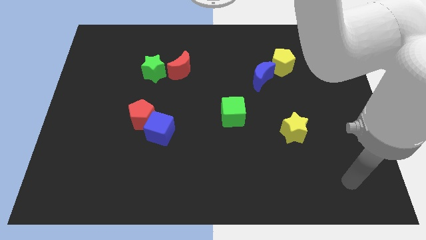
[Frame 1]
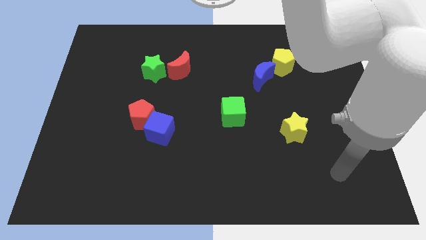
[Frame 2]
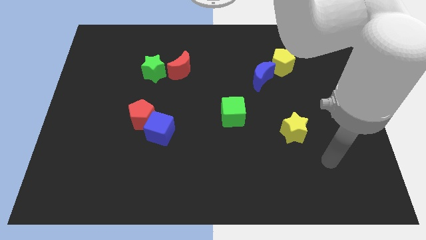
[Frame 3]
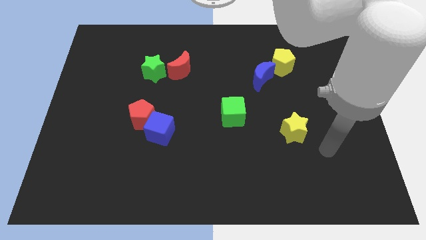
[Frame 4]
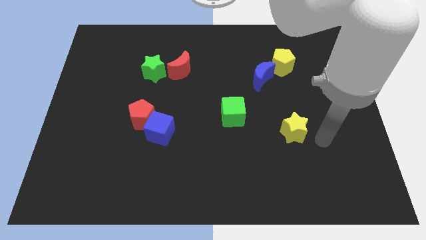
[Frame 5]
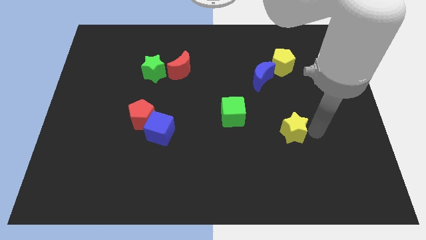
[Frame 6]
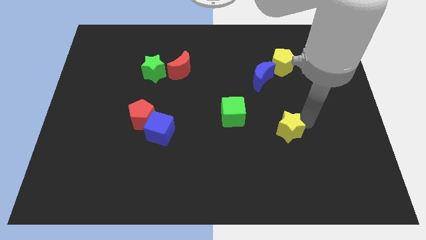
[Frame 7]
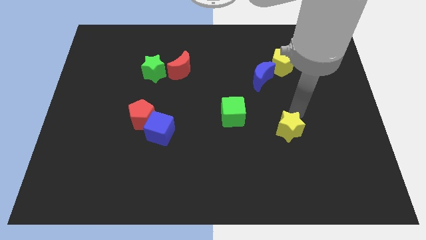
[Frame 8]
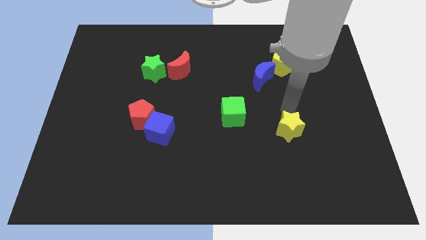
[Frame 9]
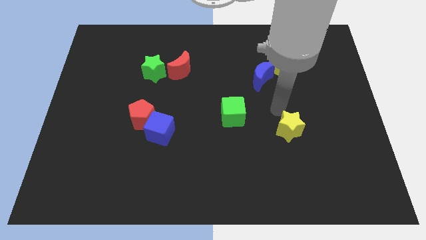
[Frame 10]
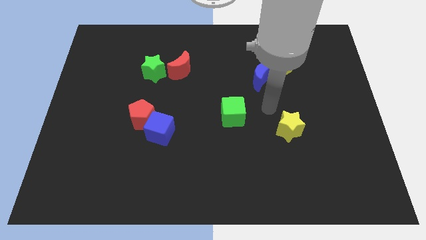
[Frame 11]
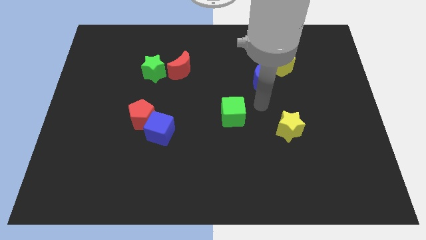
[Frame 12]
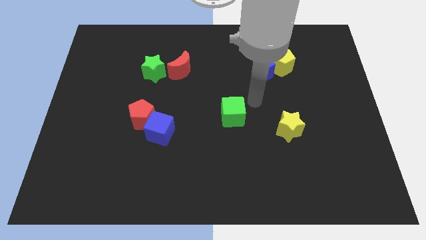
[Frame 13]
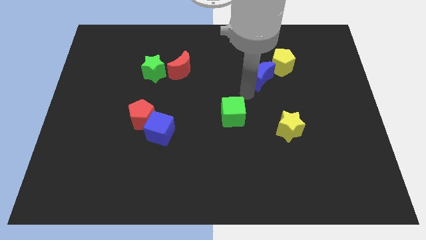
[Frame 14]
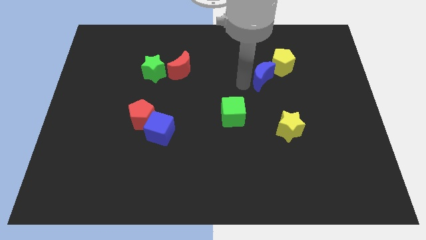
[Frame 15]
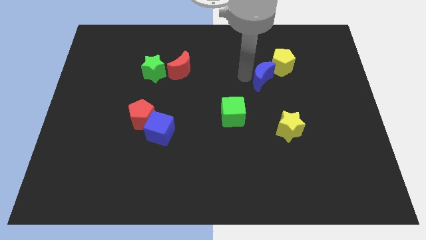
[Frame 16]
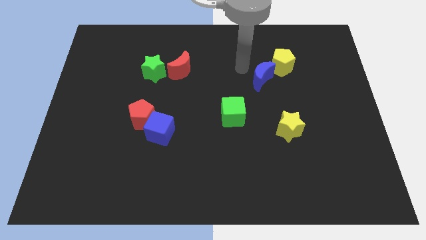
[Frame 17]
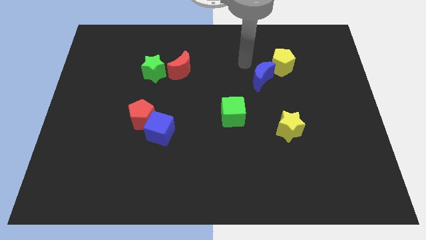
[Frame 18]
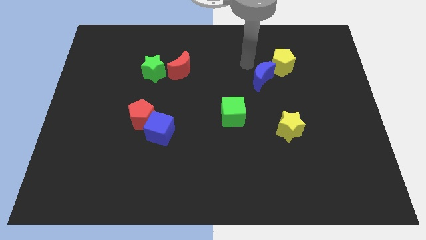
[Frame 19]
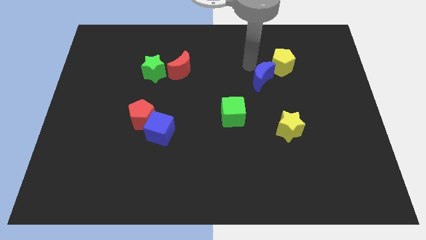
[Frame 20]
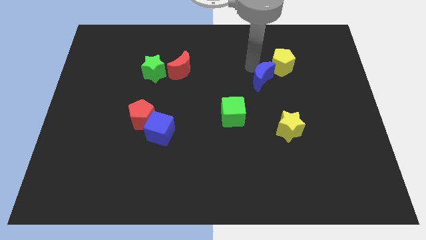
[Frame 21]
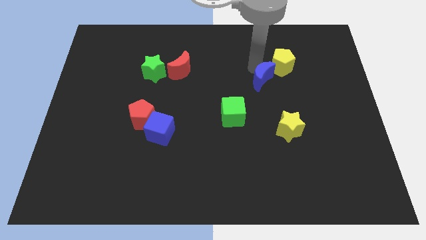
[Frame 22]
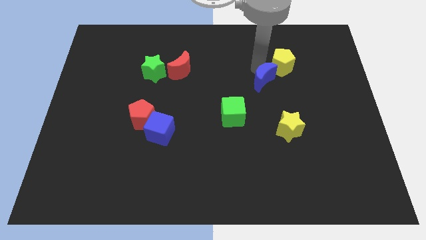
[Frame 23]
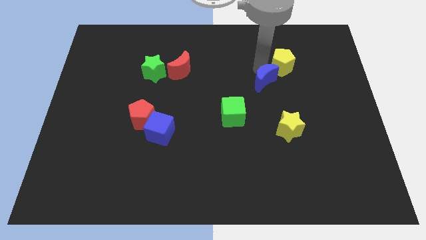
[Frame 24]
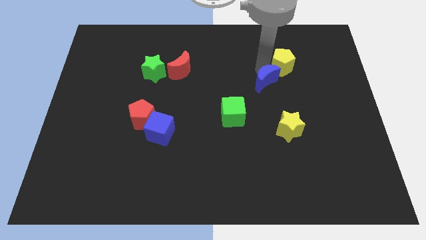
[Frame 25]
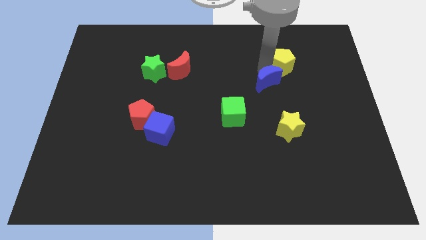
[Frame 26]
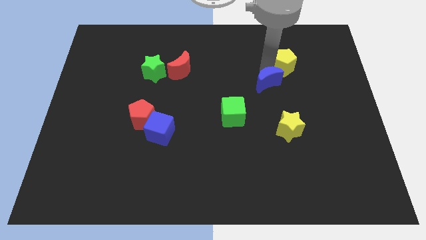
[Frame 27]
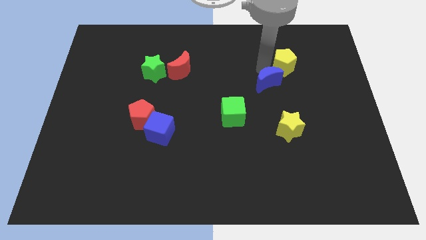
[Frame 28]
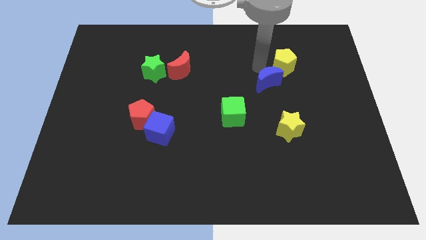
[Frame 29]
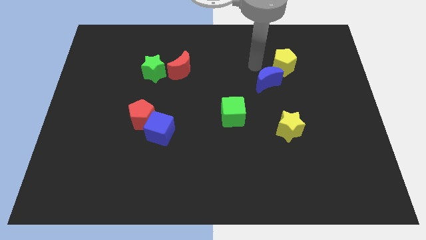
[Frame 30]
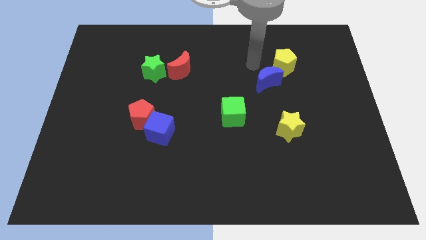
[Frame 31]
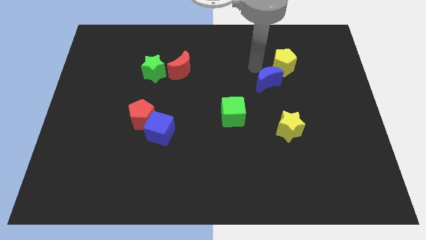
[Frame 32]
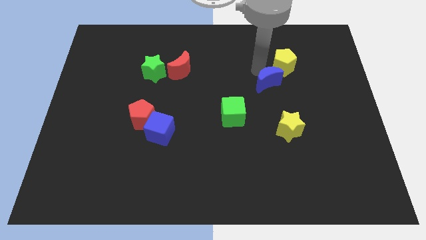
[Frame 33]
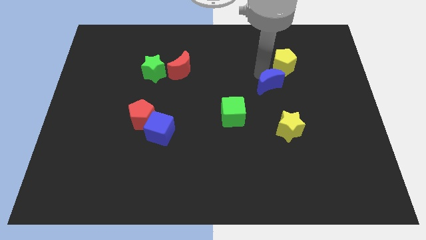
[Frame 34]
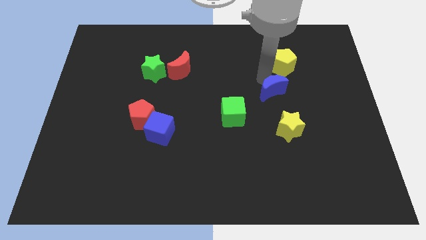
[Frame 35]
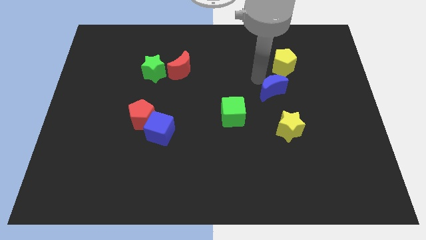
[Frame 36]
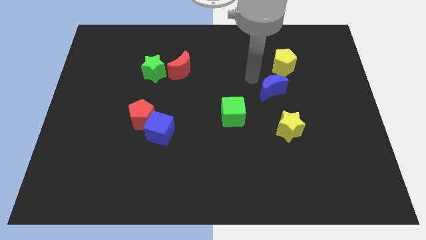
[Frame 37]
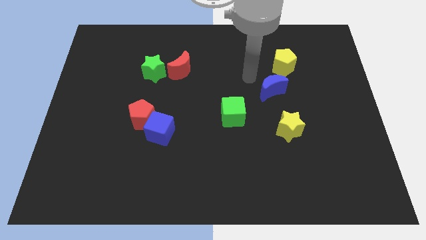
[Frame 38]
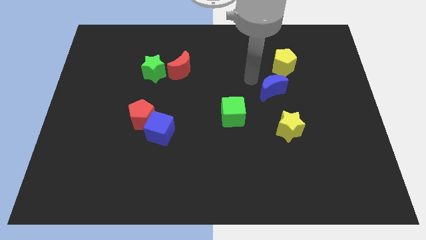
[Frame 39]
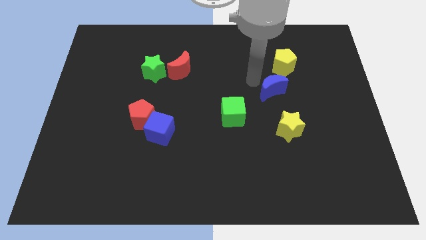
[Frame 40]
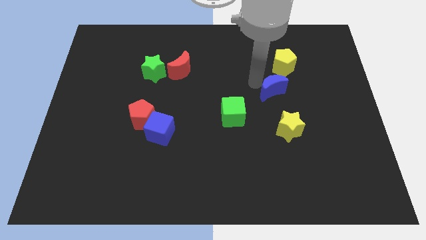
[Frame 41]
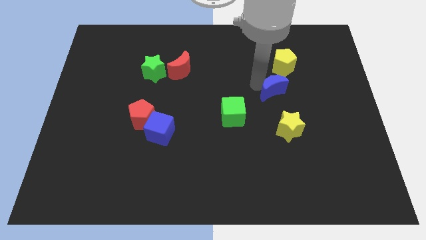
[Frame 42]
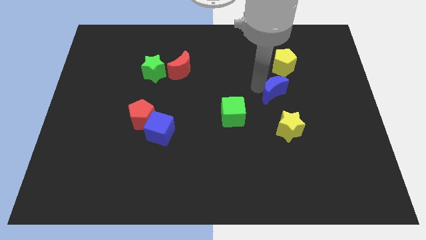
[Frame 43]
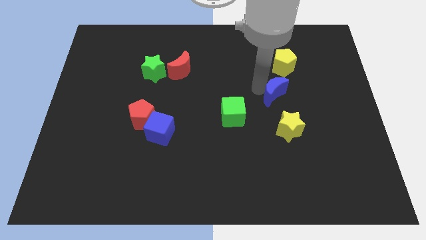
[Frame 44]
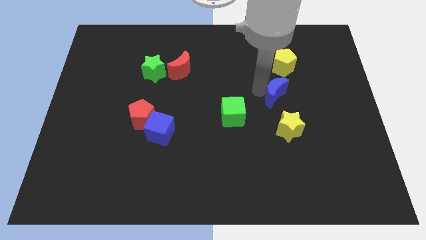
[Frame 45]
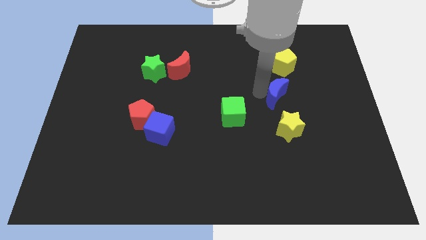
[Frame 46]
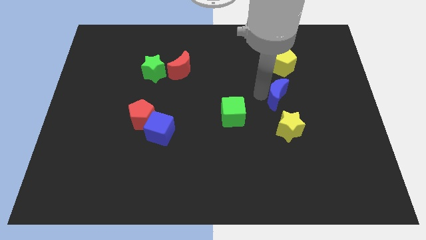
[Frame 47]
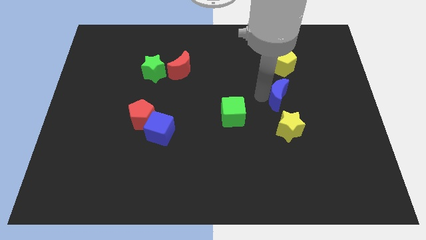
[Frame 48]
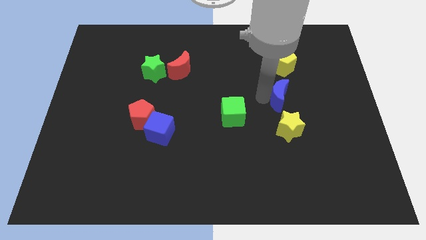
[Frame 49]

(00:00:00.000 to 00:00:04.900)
slide the blue moon a little diagonally downwards and right

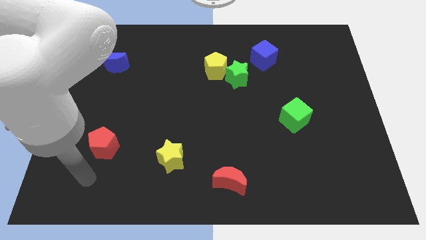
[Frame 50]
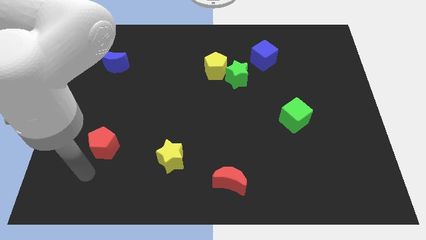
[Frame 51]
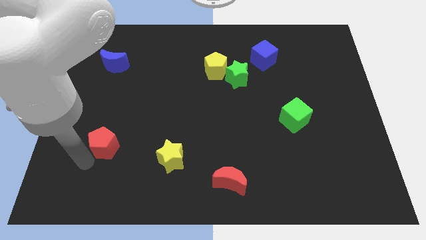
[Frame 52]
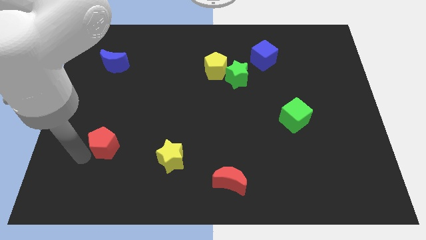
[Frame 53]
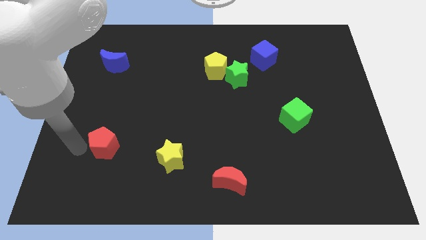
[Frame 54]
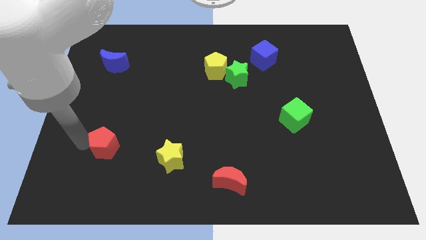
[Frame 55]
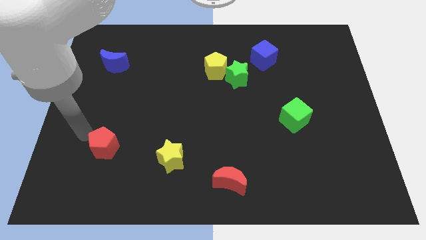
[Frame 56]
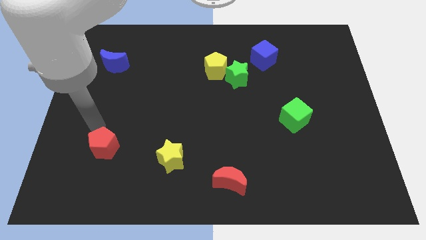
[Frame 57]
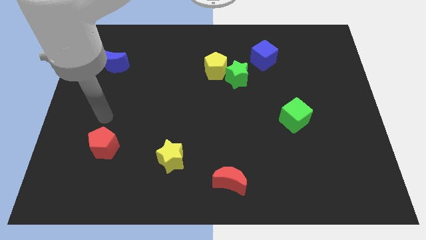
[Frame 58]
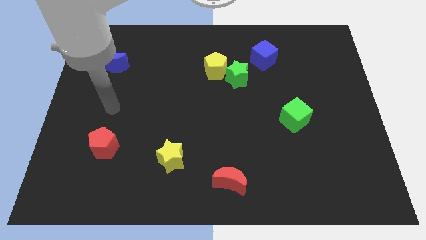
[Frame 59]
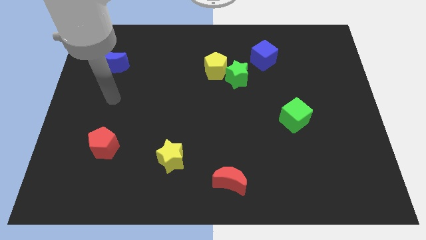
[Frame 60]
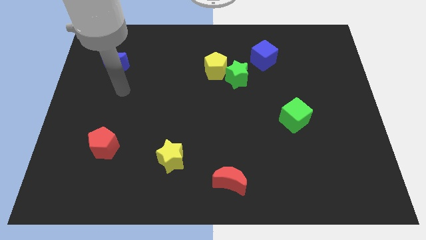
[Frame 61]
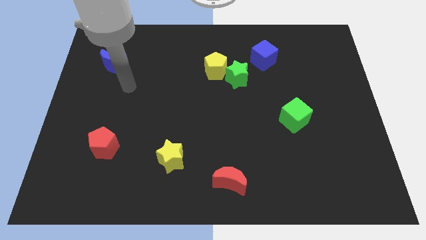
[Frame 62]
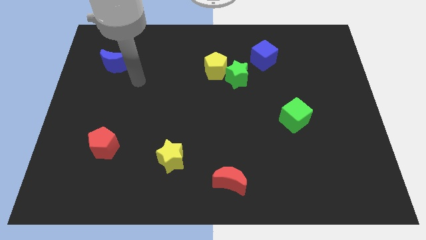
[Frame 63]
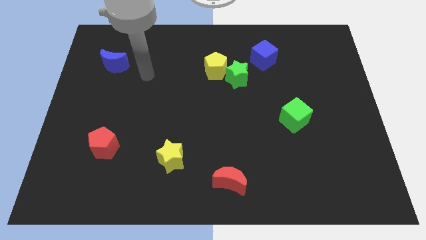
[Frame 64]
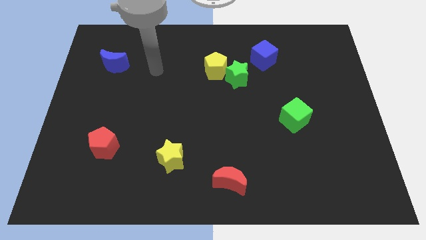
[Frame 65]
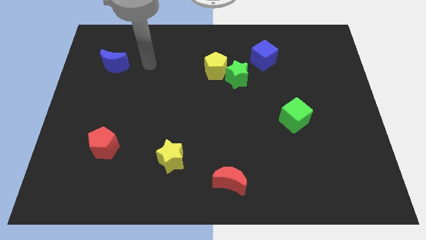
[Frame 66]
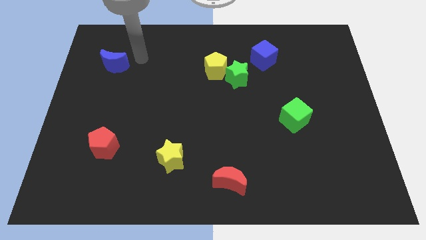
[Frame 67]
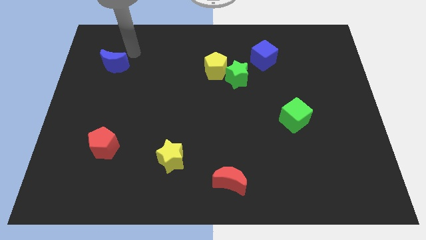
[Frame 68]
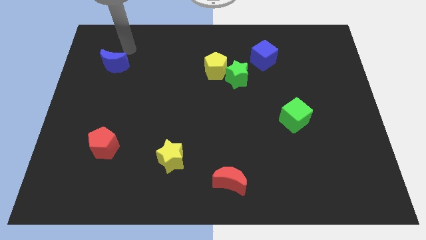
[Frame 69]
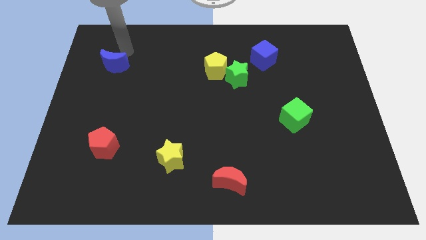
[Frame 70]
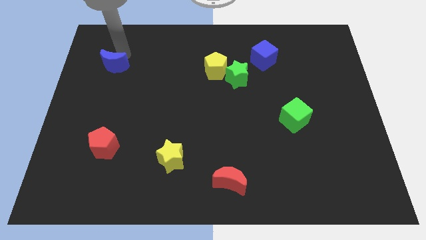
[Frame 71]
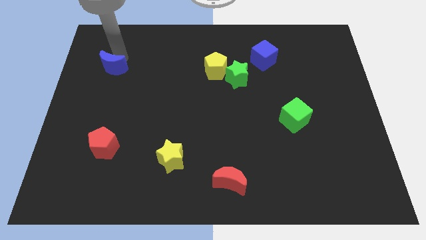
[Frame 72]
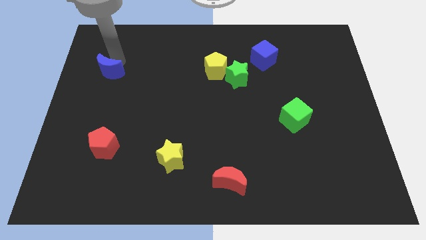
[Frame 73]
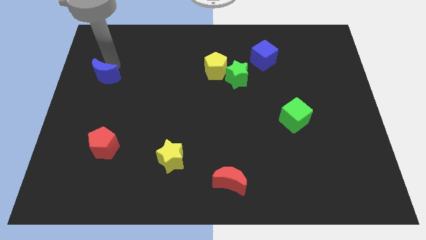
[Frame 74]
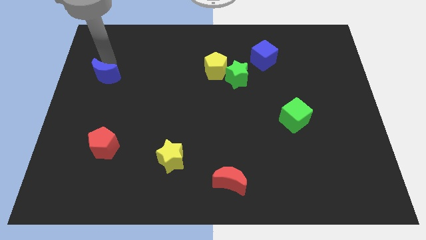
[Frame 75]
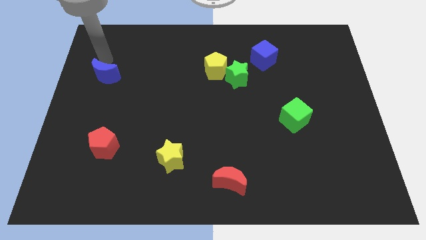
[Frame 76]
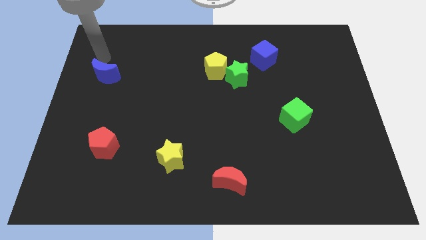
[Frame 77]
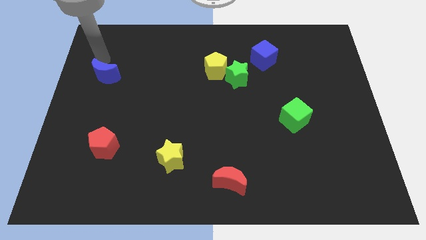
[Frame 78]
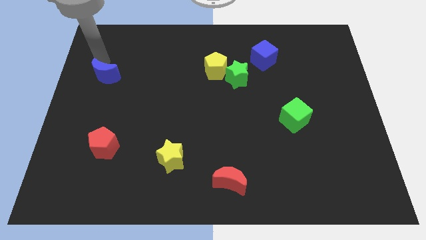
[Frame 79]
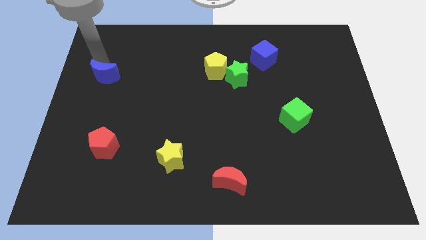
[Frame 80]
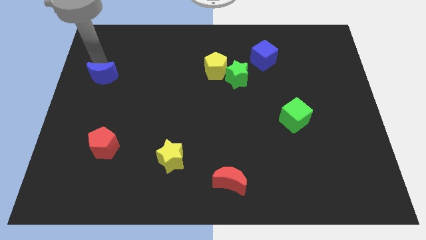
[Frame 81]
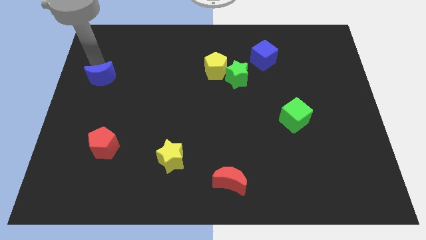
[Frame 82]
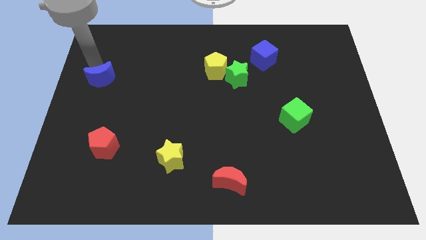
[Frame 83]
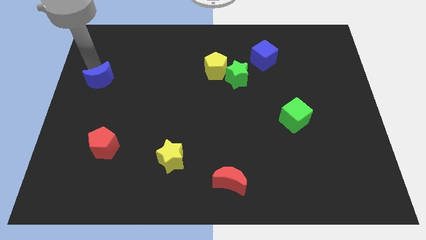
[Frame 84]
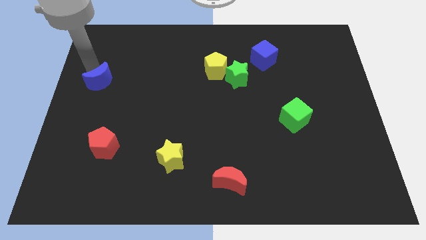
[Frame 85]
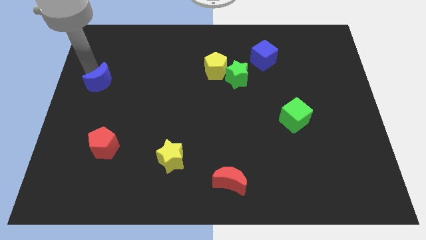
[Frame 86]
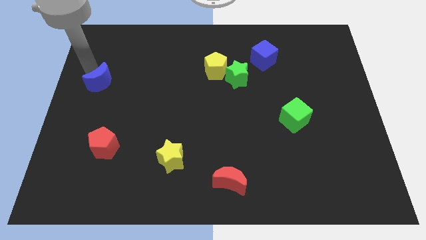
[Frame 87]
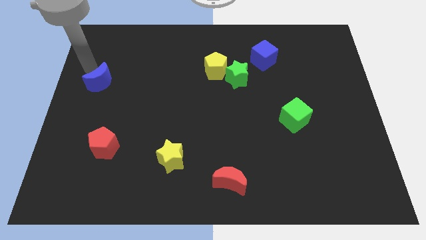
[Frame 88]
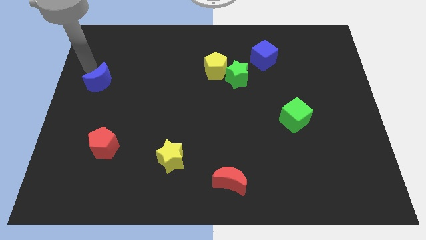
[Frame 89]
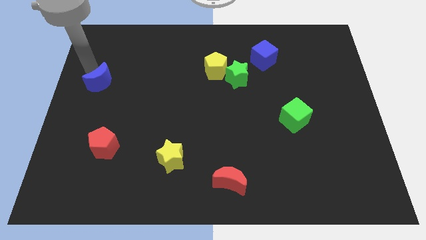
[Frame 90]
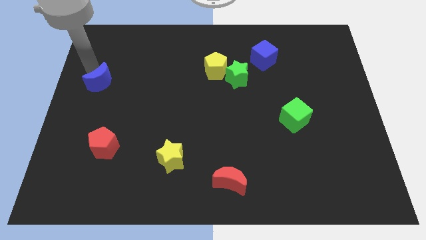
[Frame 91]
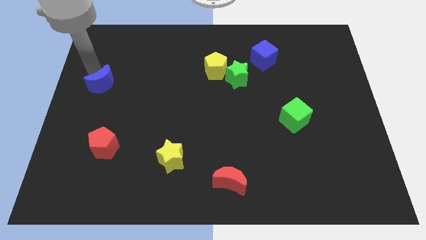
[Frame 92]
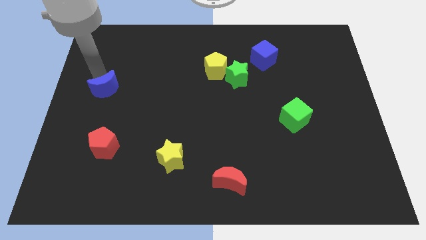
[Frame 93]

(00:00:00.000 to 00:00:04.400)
push the blue moon a little downwards
